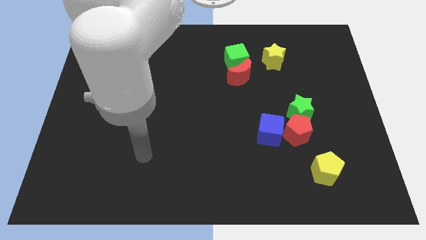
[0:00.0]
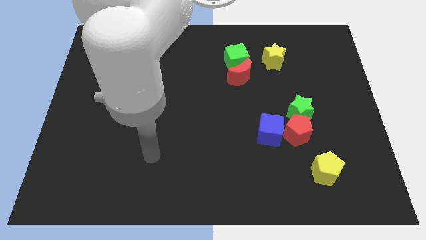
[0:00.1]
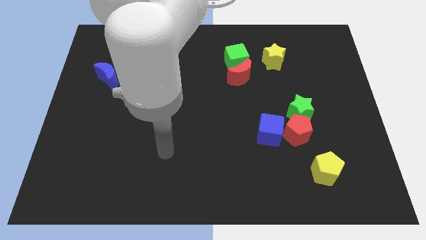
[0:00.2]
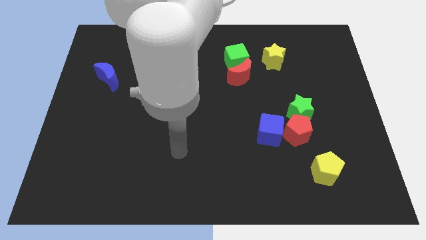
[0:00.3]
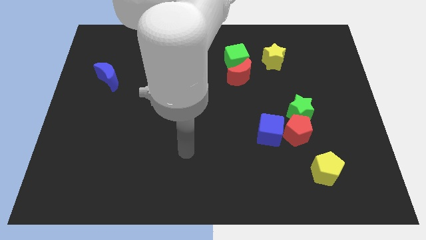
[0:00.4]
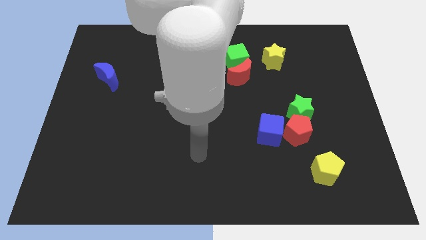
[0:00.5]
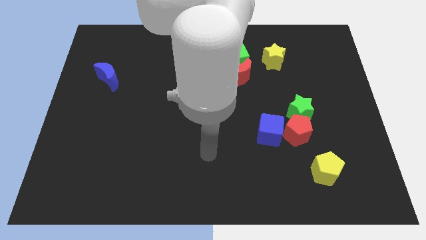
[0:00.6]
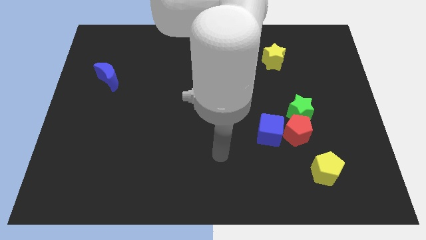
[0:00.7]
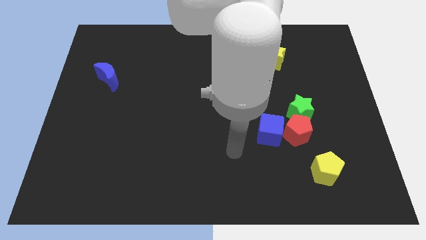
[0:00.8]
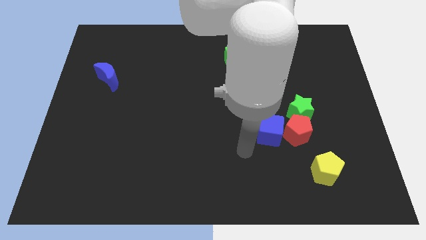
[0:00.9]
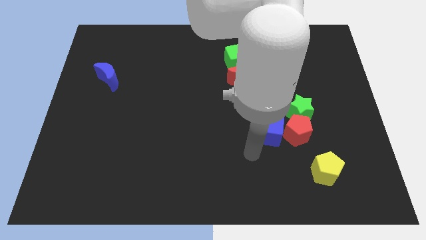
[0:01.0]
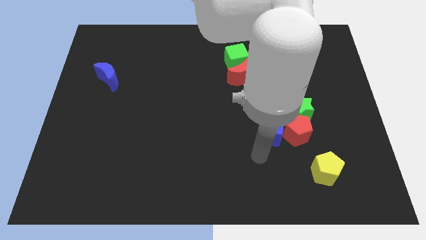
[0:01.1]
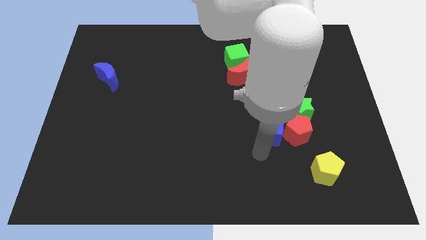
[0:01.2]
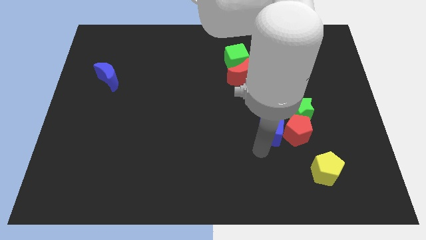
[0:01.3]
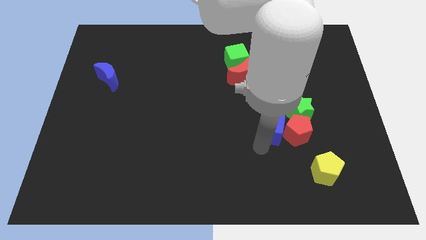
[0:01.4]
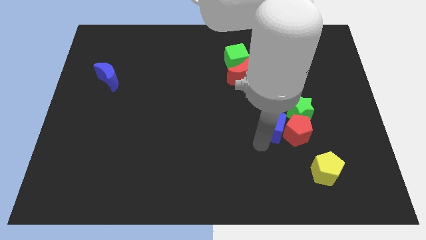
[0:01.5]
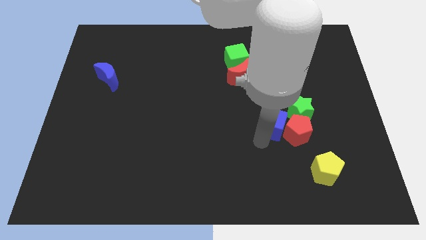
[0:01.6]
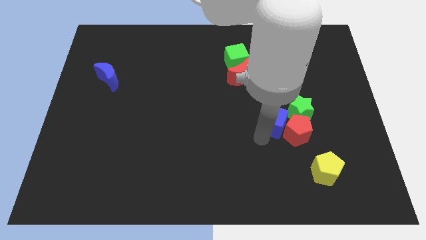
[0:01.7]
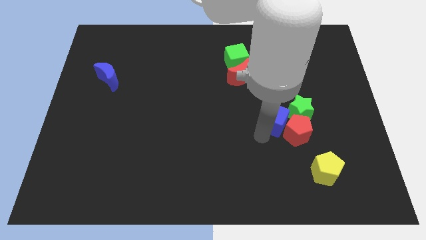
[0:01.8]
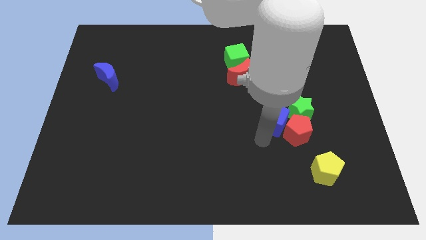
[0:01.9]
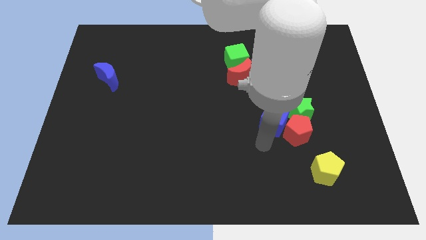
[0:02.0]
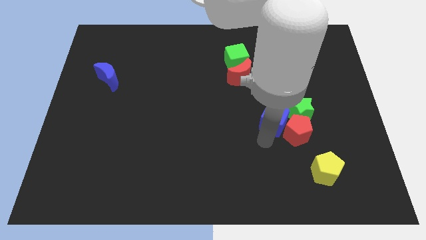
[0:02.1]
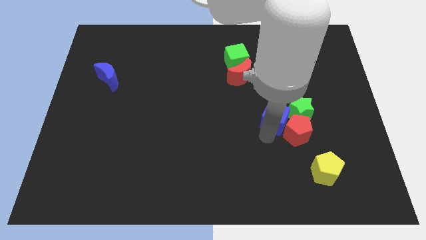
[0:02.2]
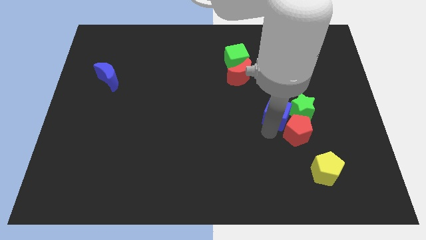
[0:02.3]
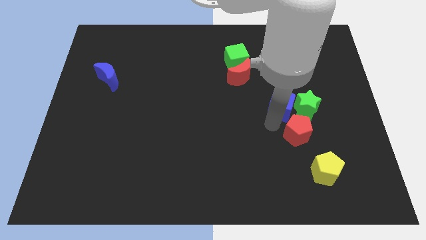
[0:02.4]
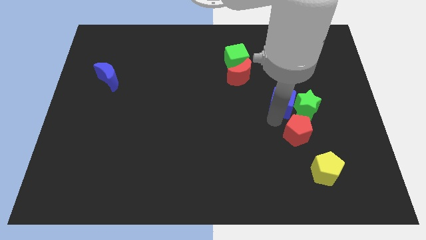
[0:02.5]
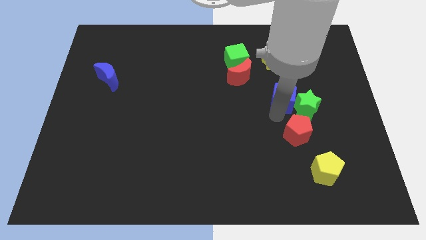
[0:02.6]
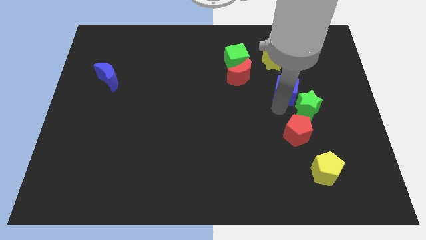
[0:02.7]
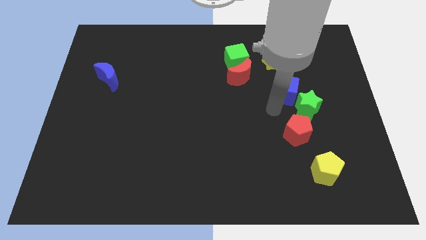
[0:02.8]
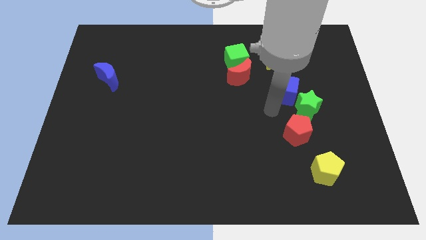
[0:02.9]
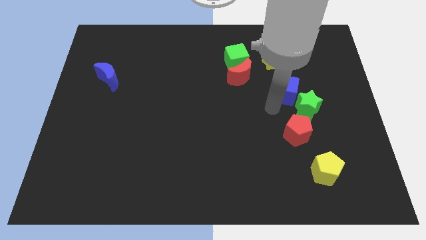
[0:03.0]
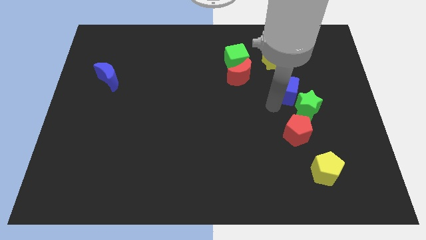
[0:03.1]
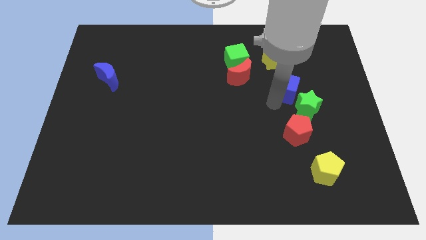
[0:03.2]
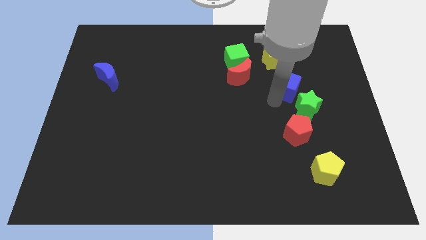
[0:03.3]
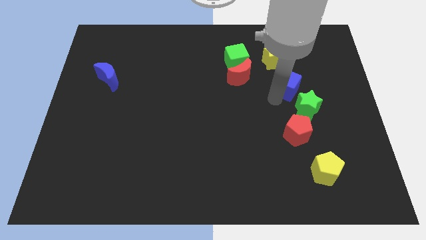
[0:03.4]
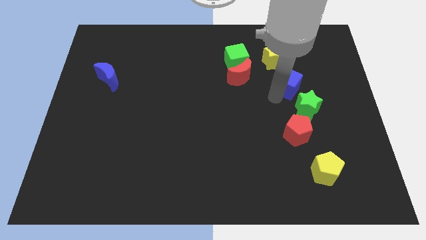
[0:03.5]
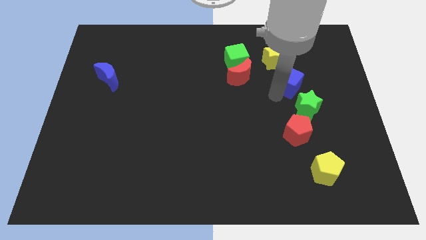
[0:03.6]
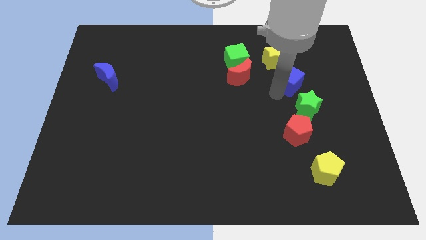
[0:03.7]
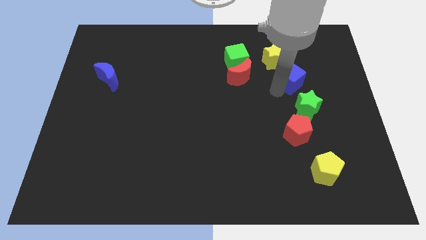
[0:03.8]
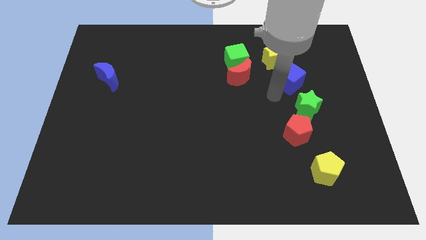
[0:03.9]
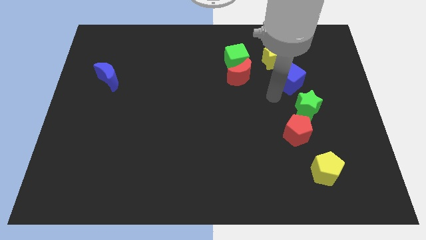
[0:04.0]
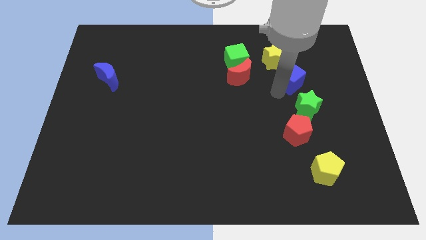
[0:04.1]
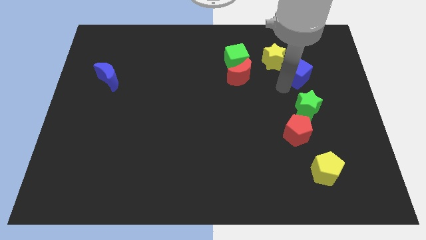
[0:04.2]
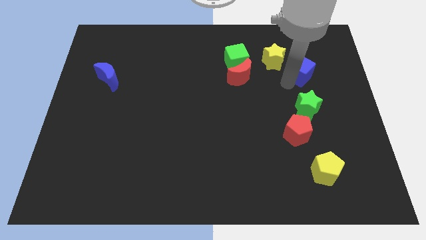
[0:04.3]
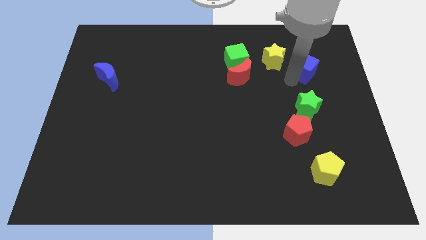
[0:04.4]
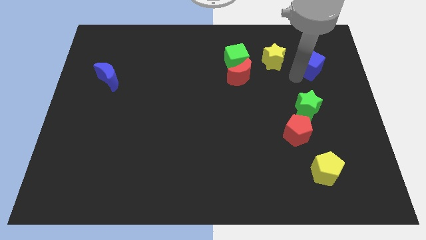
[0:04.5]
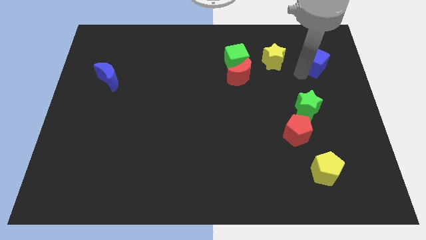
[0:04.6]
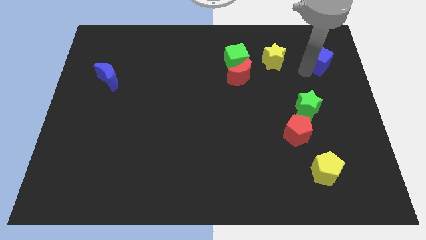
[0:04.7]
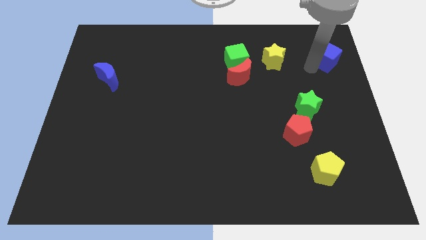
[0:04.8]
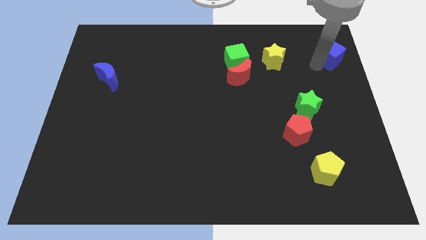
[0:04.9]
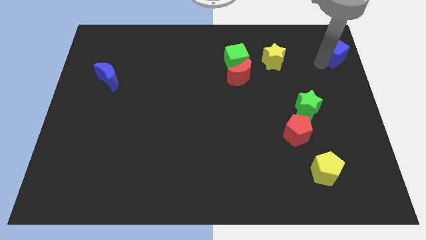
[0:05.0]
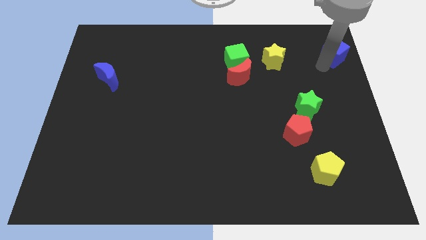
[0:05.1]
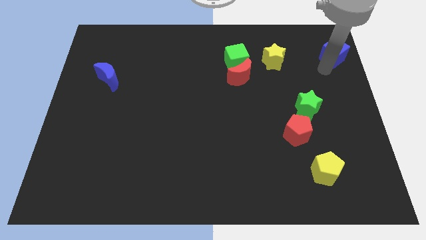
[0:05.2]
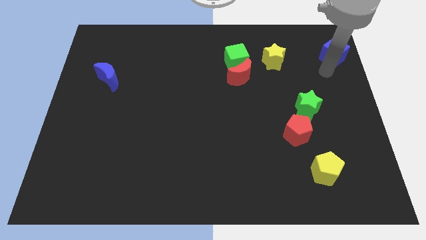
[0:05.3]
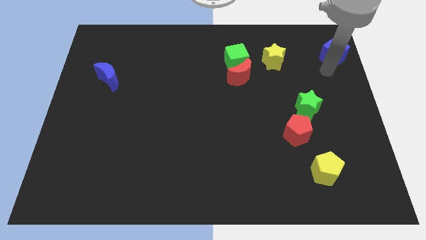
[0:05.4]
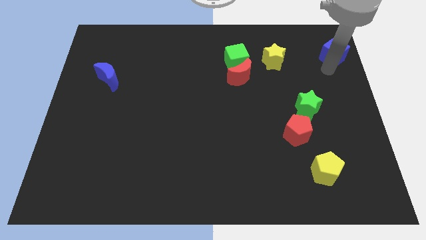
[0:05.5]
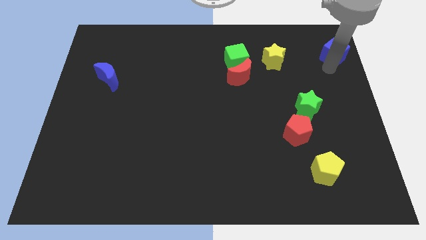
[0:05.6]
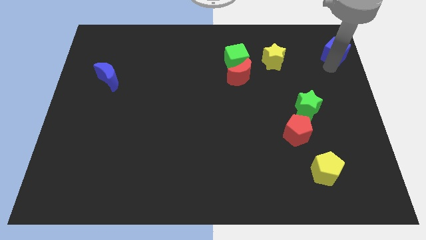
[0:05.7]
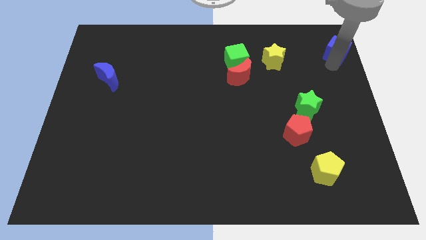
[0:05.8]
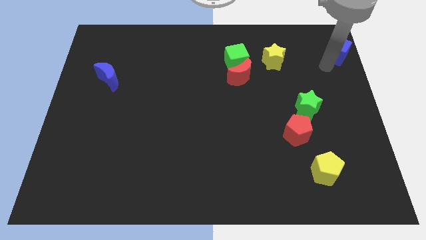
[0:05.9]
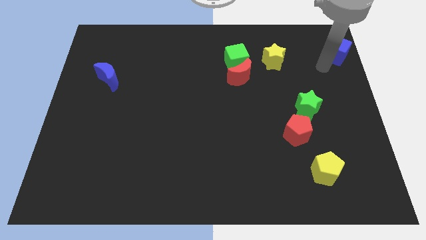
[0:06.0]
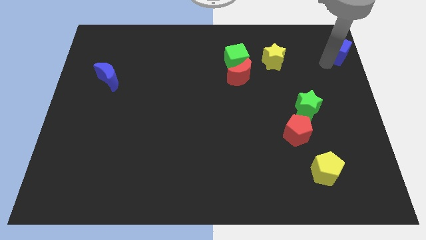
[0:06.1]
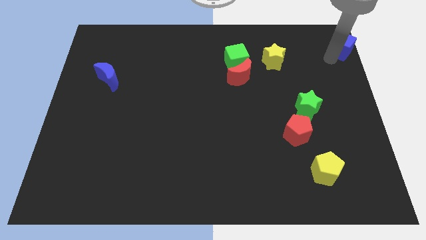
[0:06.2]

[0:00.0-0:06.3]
move the blue cube to the top right
